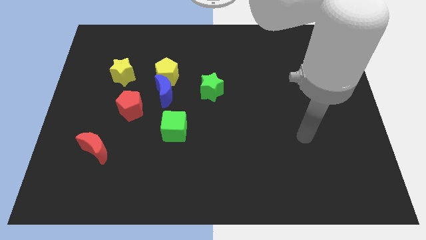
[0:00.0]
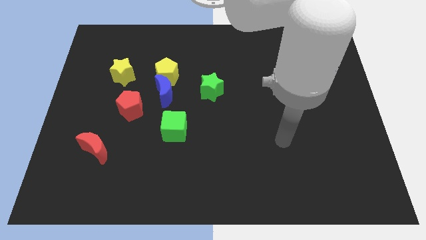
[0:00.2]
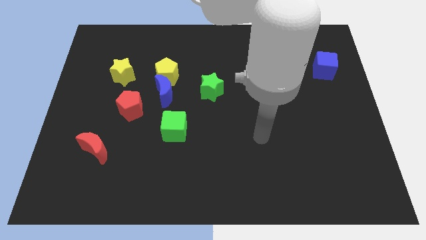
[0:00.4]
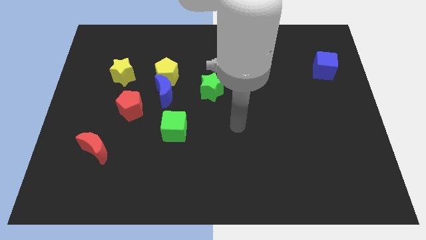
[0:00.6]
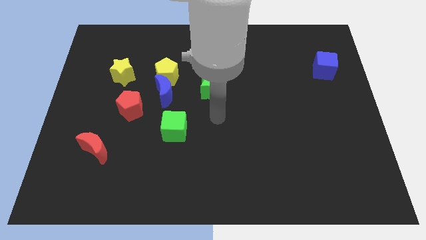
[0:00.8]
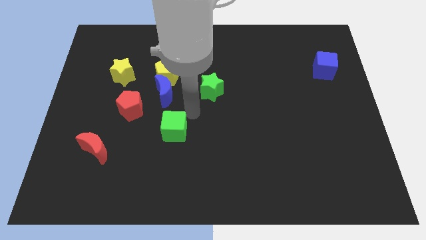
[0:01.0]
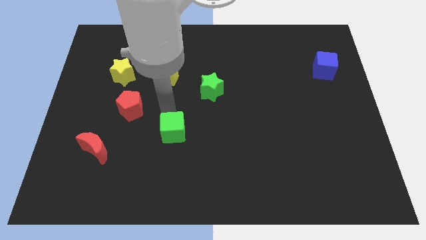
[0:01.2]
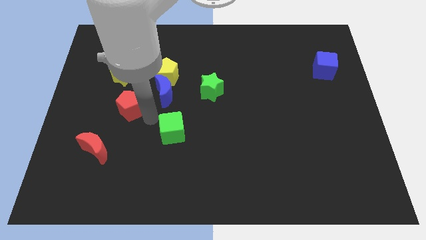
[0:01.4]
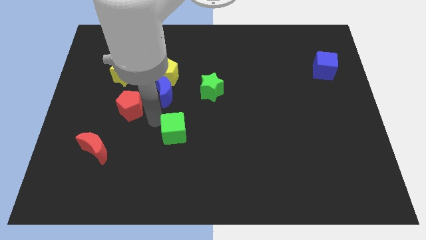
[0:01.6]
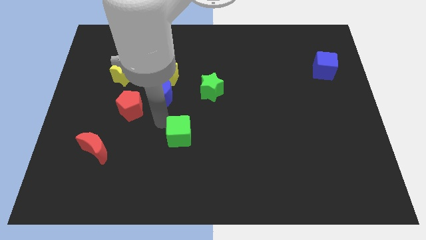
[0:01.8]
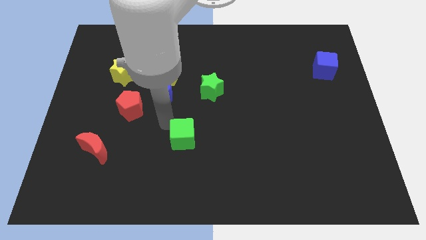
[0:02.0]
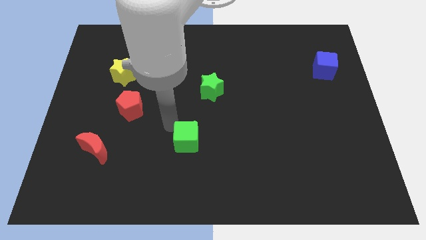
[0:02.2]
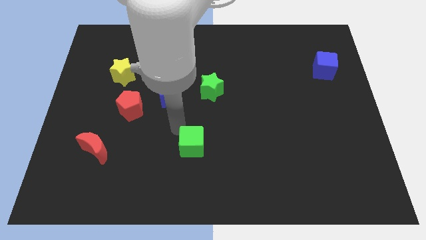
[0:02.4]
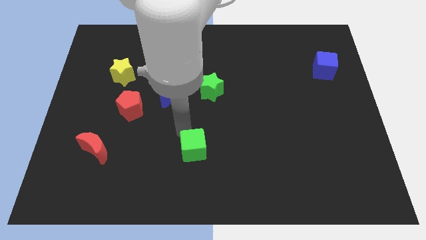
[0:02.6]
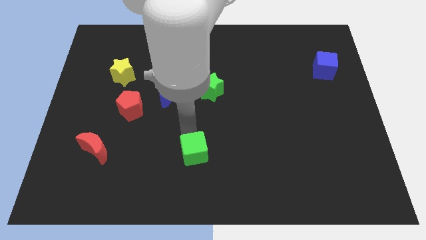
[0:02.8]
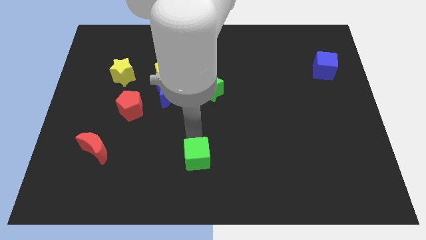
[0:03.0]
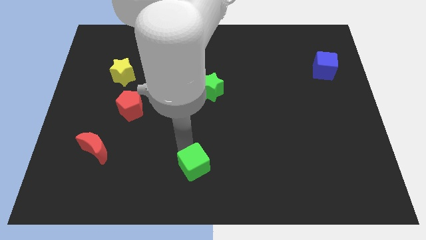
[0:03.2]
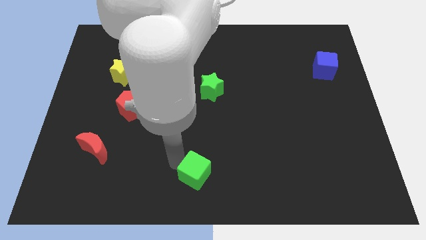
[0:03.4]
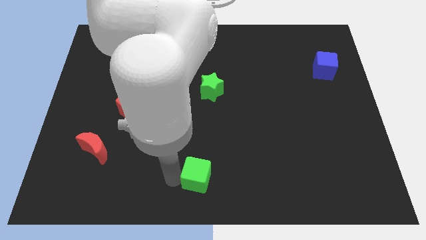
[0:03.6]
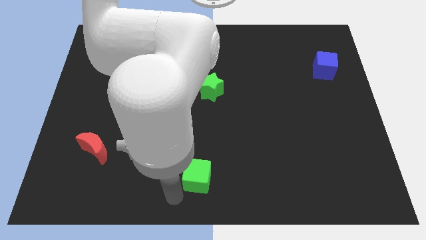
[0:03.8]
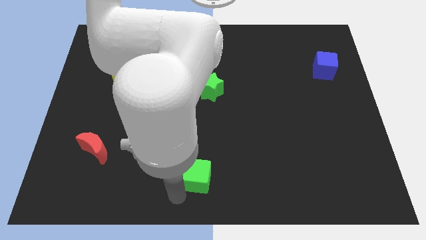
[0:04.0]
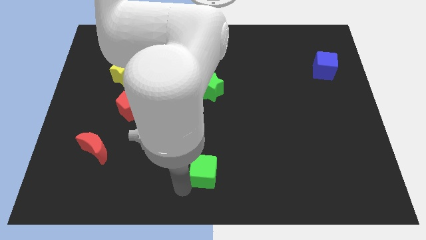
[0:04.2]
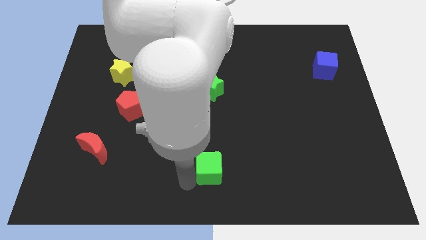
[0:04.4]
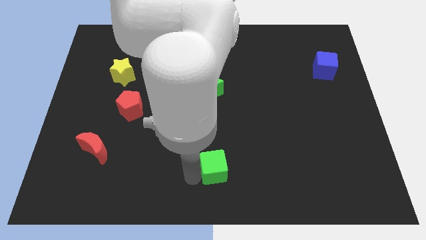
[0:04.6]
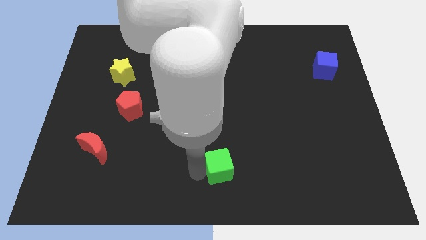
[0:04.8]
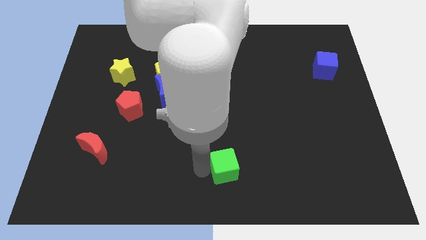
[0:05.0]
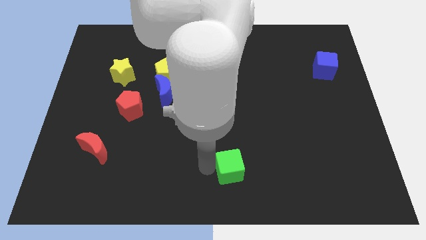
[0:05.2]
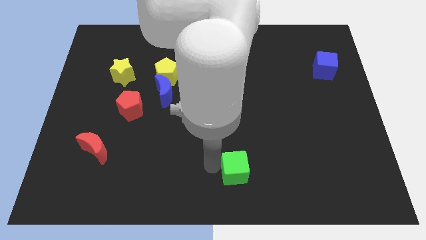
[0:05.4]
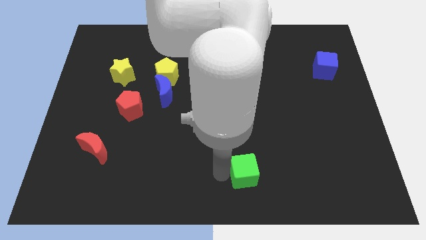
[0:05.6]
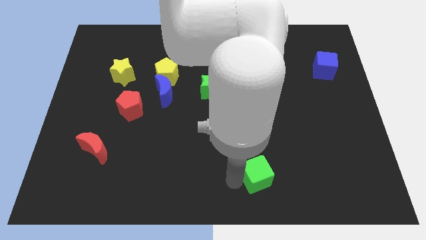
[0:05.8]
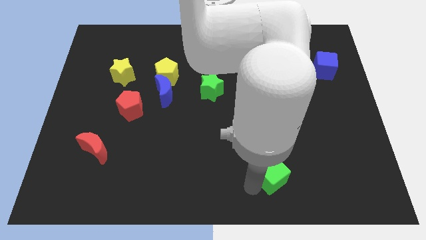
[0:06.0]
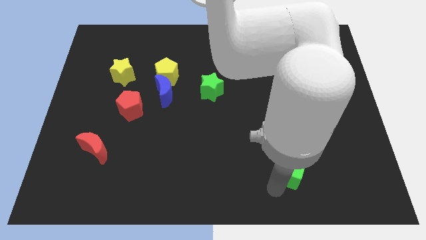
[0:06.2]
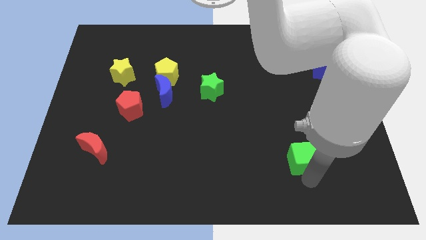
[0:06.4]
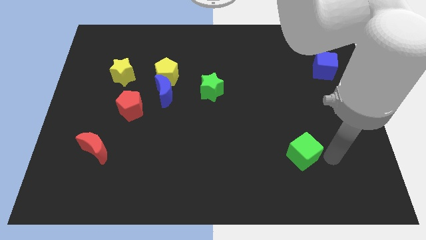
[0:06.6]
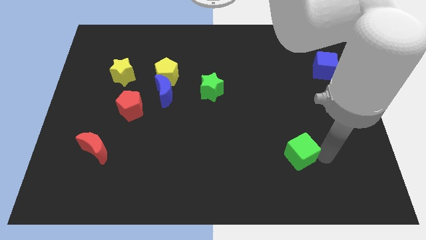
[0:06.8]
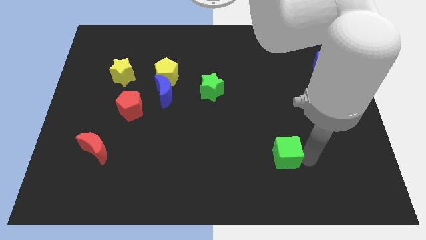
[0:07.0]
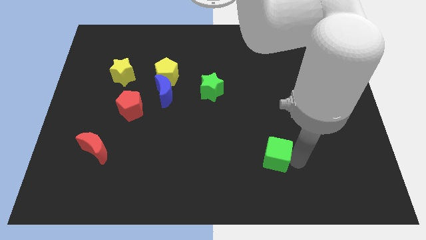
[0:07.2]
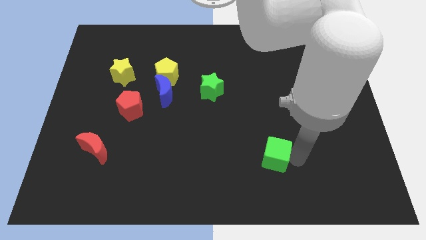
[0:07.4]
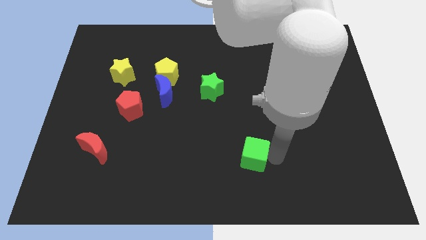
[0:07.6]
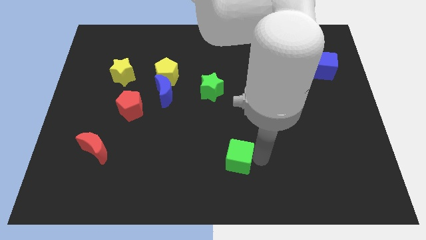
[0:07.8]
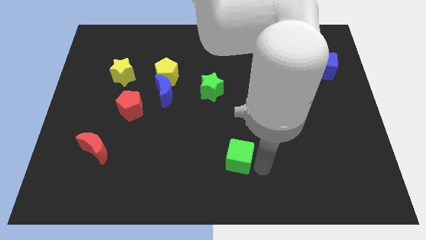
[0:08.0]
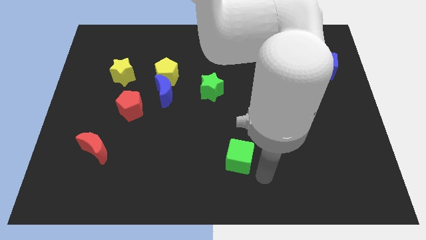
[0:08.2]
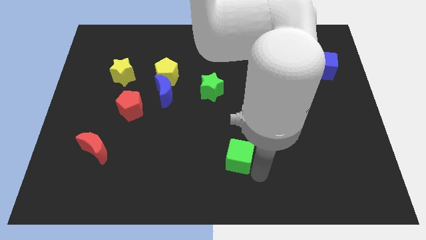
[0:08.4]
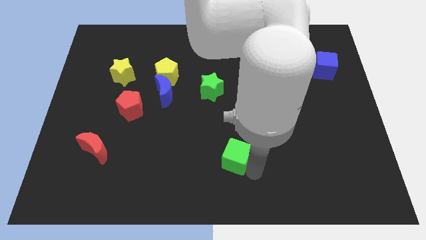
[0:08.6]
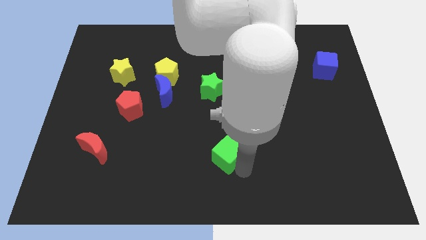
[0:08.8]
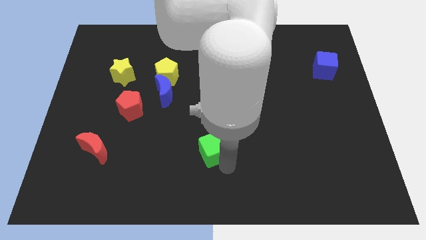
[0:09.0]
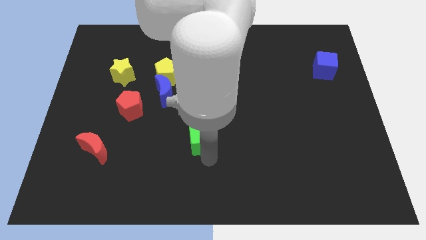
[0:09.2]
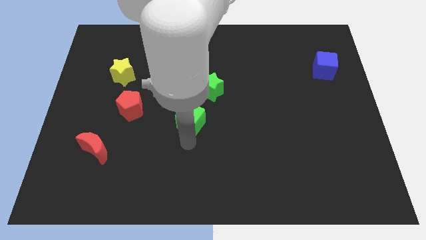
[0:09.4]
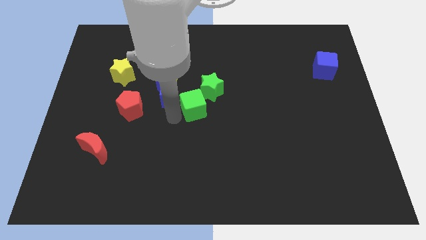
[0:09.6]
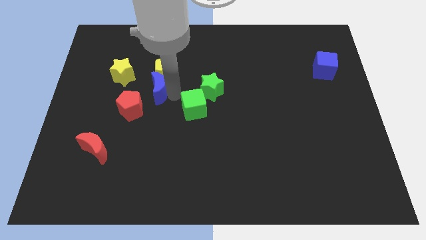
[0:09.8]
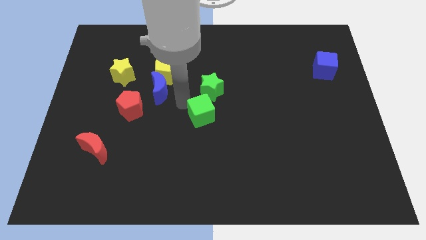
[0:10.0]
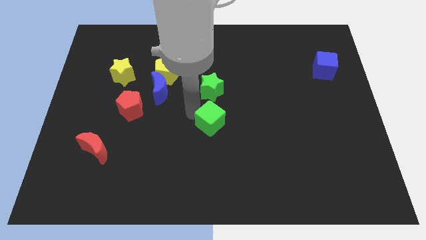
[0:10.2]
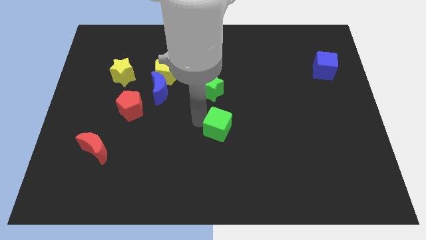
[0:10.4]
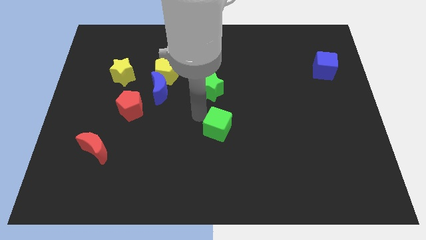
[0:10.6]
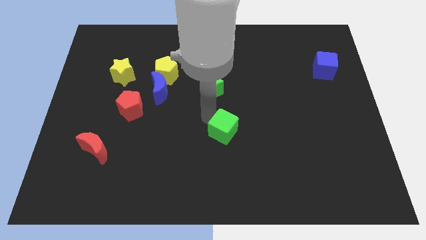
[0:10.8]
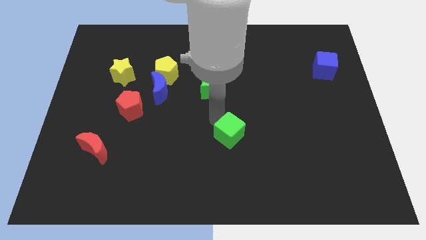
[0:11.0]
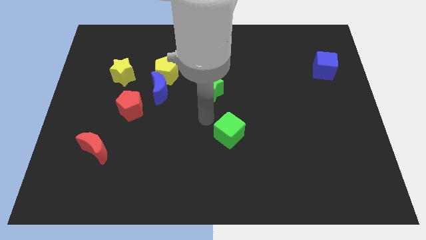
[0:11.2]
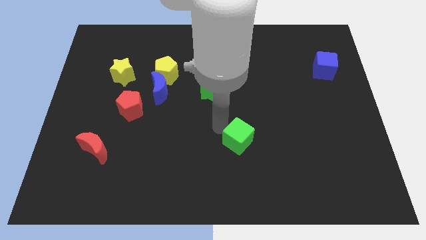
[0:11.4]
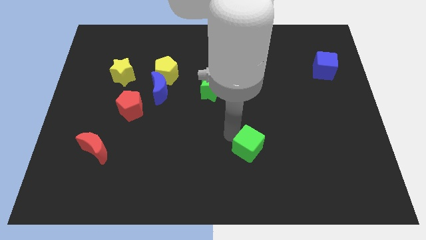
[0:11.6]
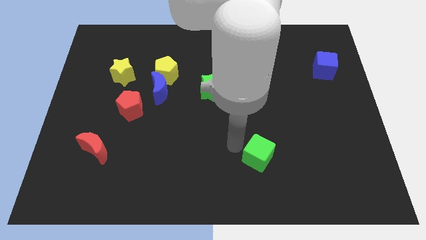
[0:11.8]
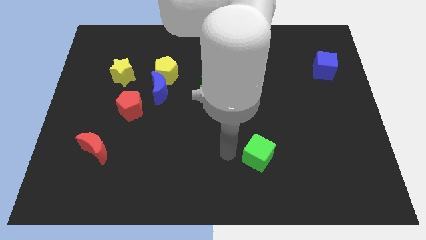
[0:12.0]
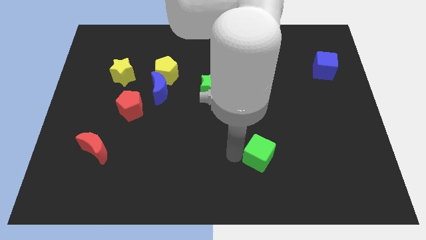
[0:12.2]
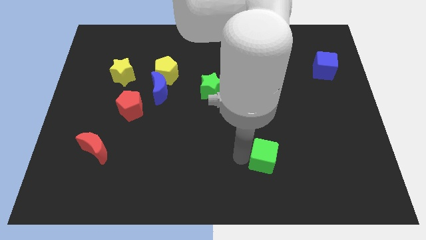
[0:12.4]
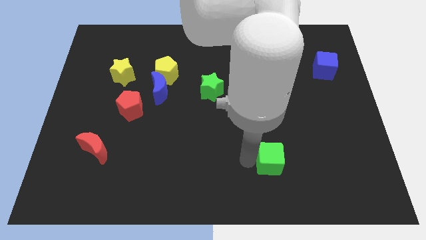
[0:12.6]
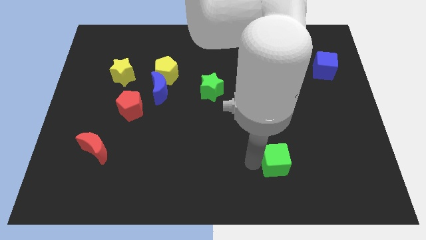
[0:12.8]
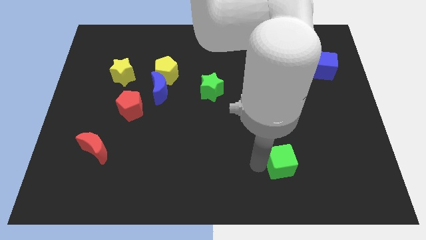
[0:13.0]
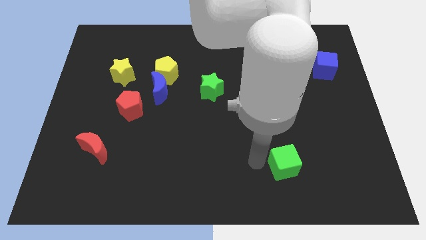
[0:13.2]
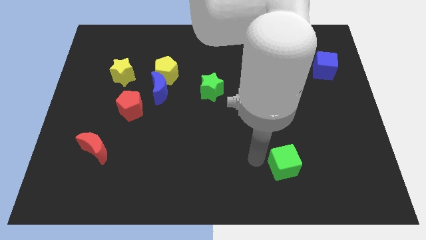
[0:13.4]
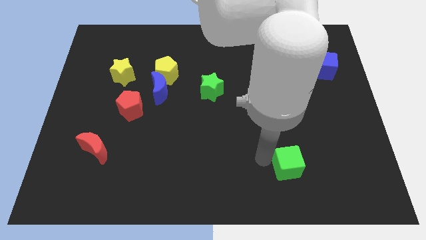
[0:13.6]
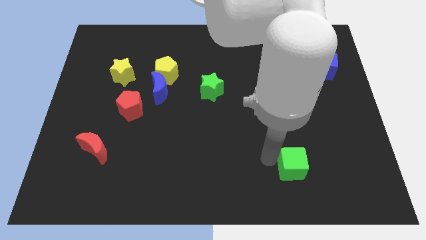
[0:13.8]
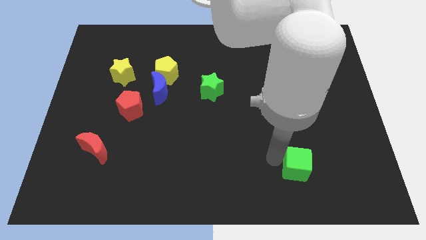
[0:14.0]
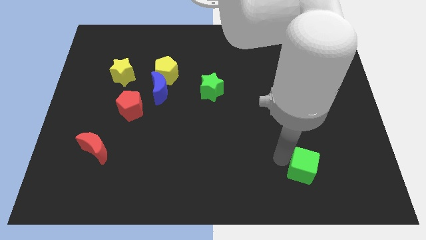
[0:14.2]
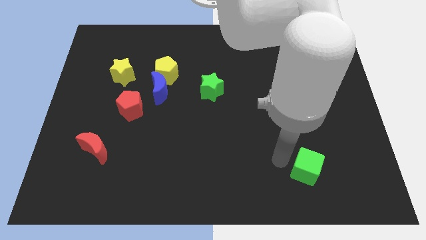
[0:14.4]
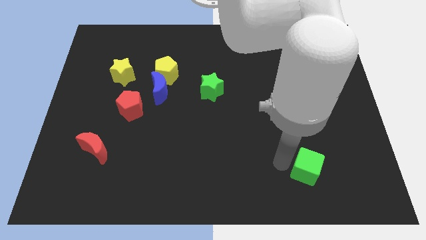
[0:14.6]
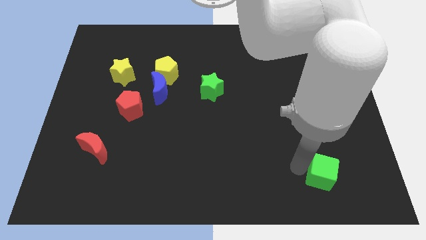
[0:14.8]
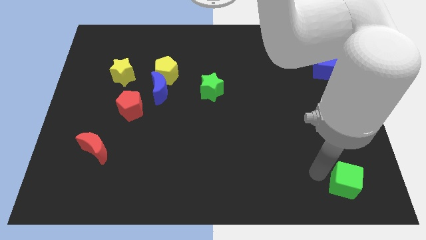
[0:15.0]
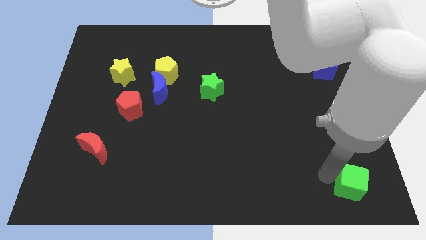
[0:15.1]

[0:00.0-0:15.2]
move the green cube to the bottom right corner
